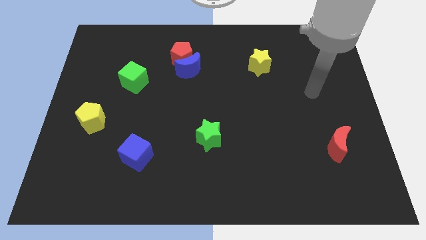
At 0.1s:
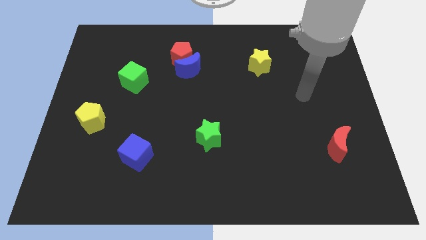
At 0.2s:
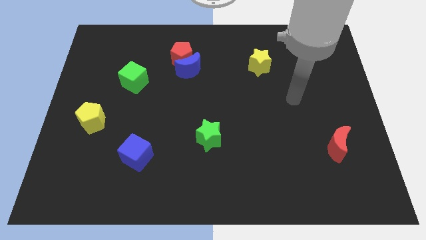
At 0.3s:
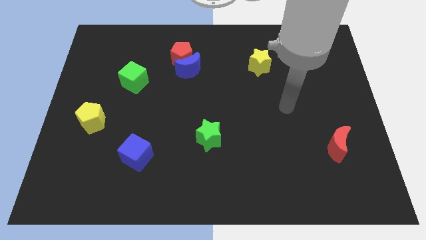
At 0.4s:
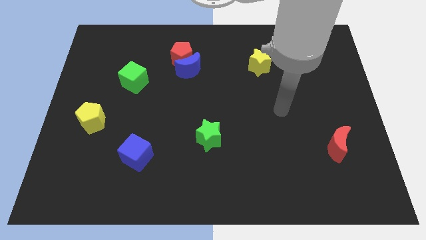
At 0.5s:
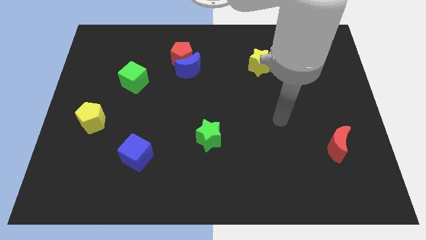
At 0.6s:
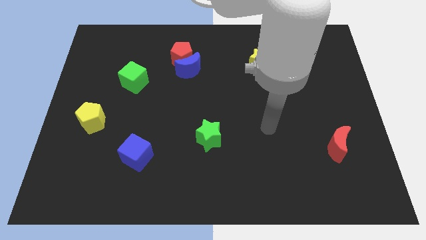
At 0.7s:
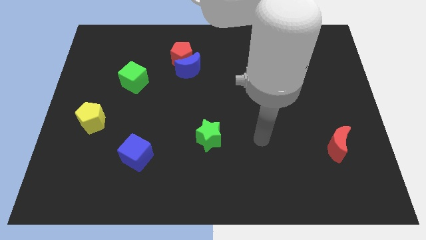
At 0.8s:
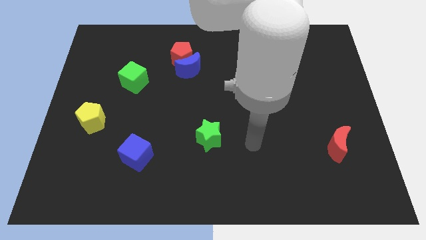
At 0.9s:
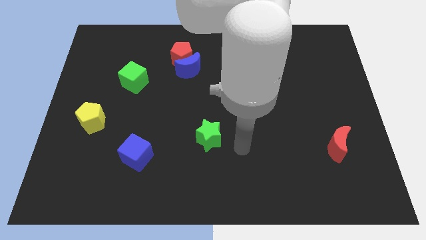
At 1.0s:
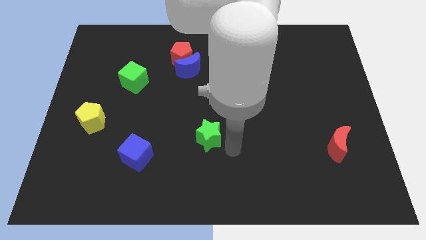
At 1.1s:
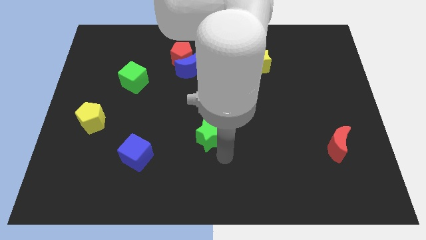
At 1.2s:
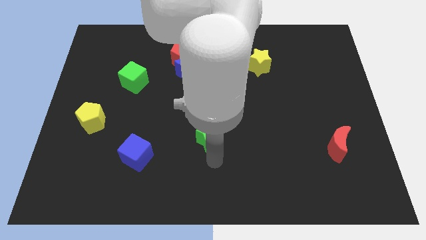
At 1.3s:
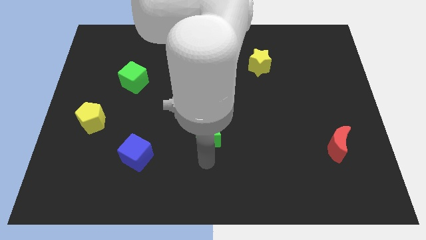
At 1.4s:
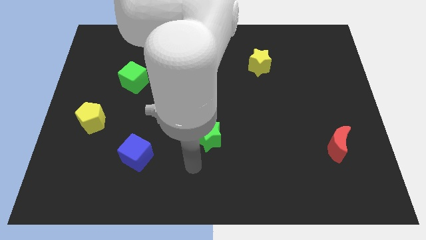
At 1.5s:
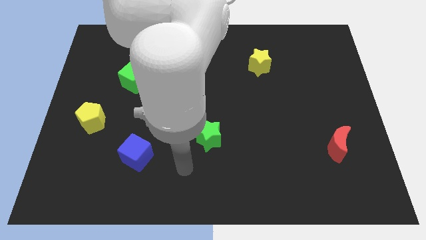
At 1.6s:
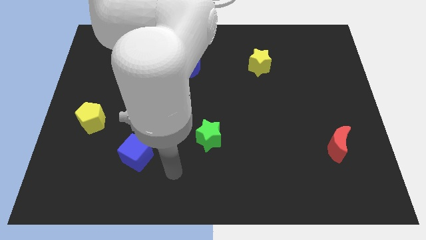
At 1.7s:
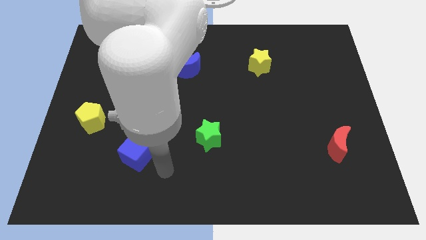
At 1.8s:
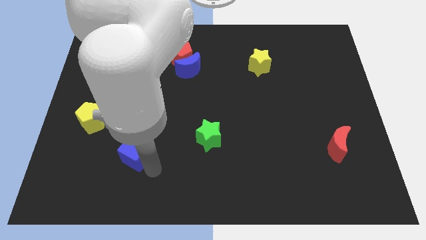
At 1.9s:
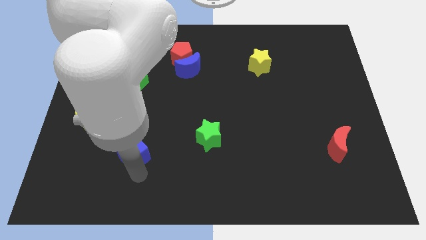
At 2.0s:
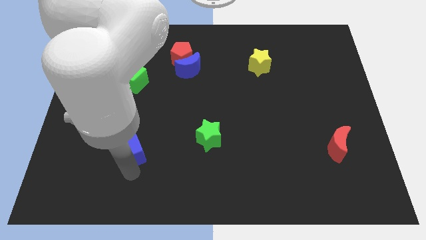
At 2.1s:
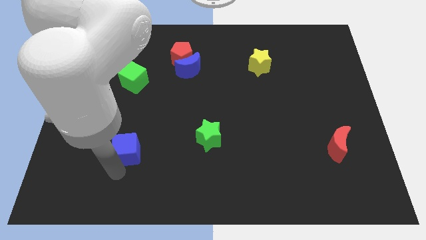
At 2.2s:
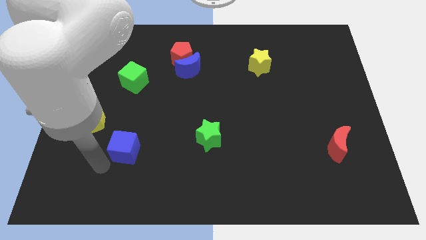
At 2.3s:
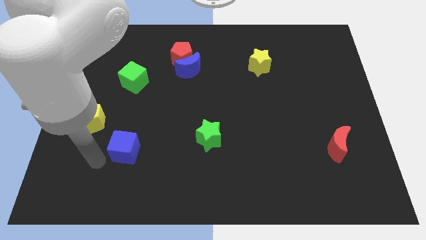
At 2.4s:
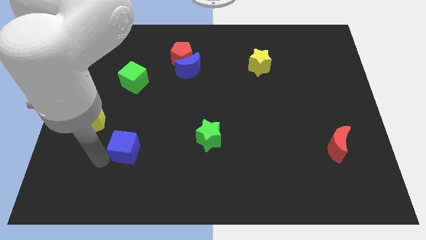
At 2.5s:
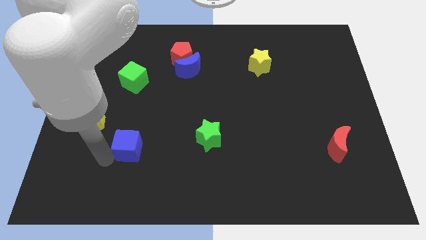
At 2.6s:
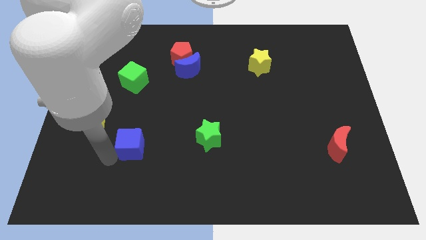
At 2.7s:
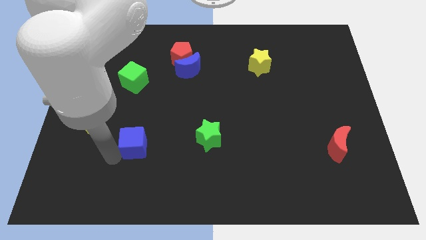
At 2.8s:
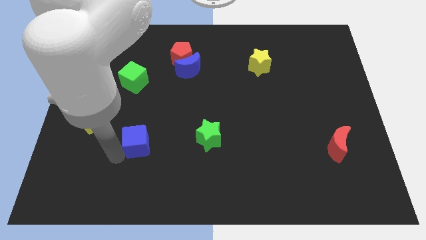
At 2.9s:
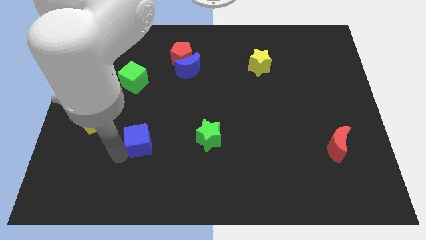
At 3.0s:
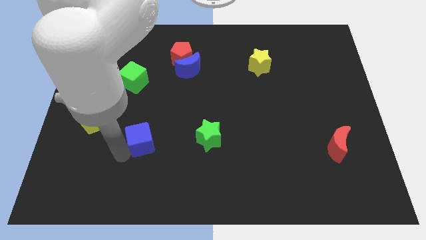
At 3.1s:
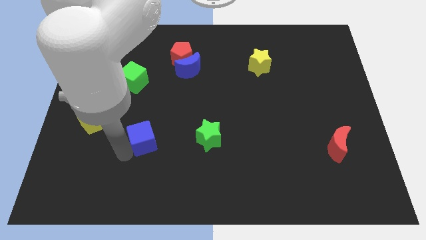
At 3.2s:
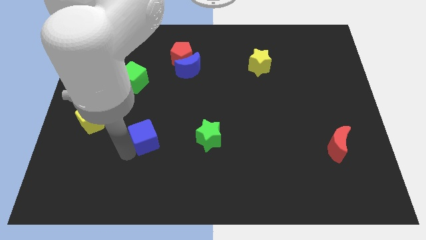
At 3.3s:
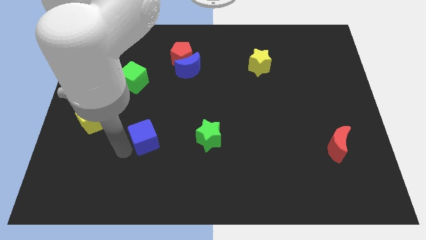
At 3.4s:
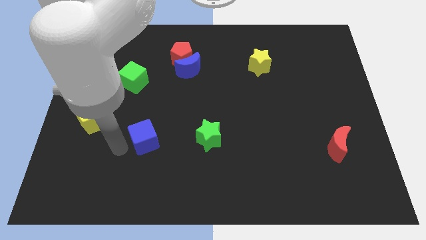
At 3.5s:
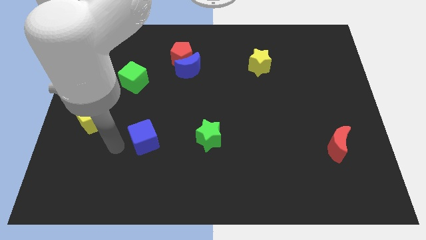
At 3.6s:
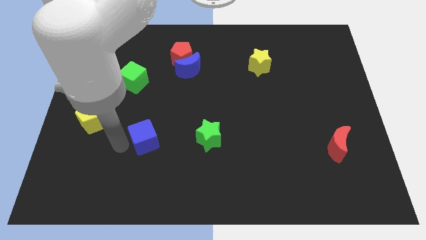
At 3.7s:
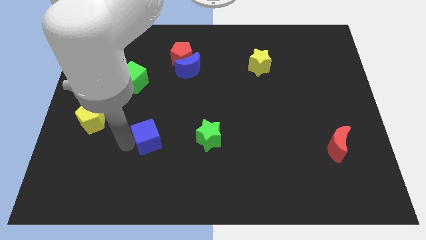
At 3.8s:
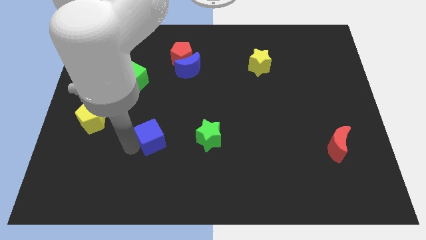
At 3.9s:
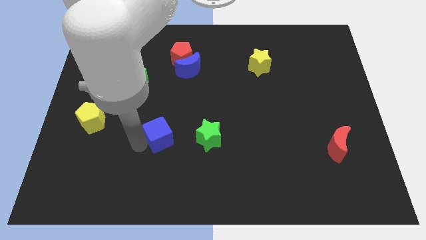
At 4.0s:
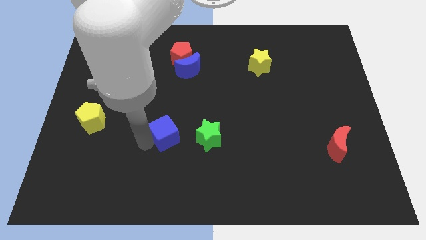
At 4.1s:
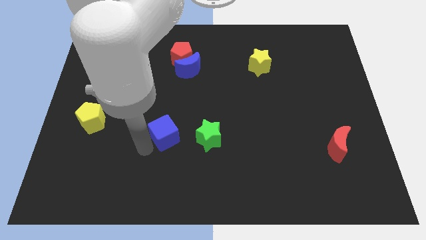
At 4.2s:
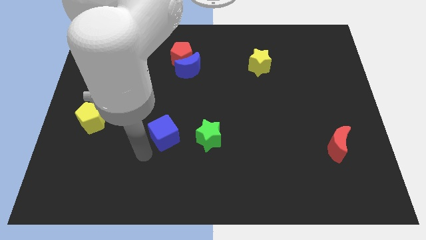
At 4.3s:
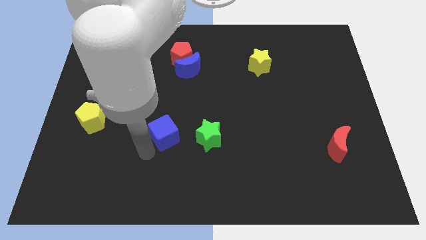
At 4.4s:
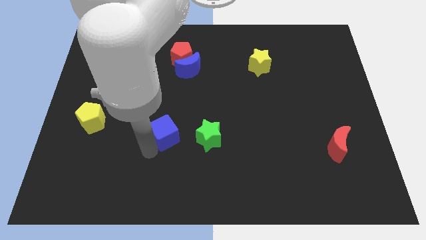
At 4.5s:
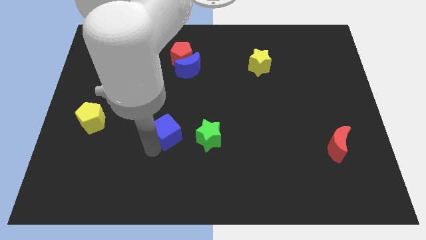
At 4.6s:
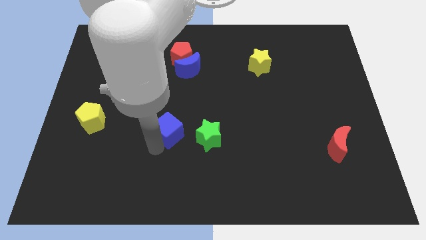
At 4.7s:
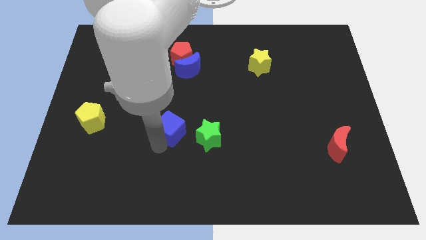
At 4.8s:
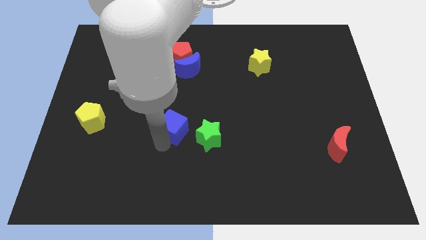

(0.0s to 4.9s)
put the blue cube to the center of the board

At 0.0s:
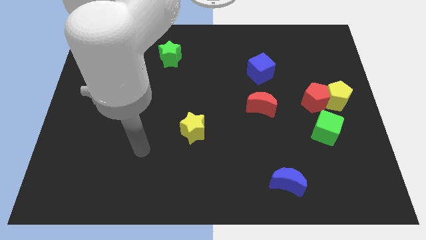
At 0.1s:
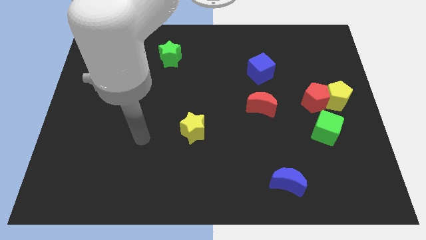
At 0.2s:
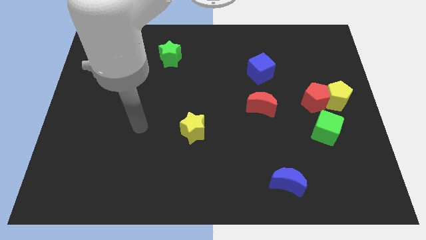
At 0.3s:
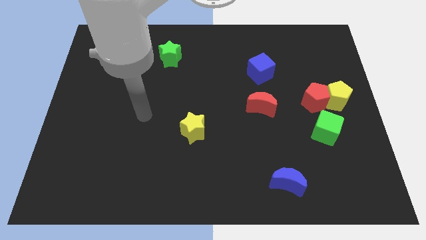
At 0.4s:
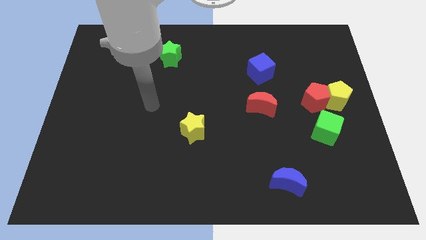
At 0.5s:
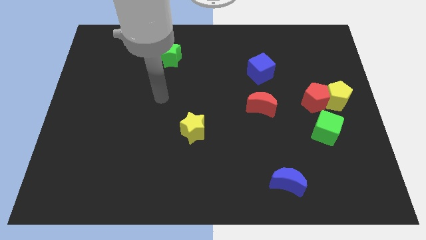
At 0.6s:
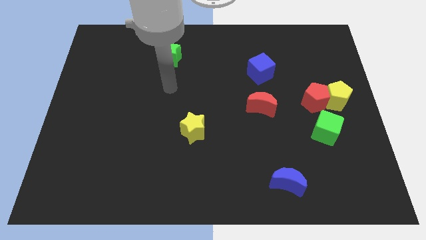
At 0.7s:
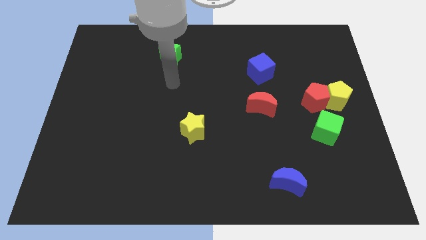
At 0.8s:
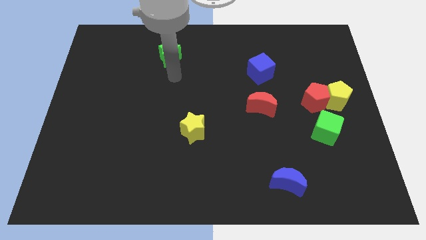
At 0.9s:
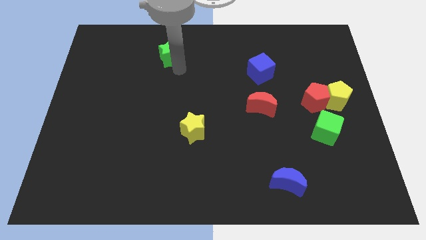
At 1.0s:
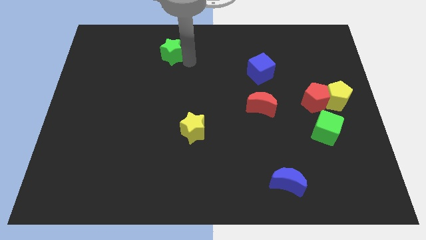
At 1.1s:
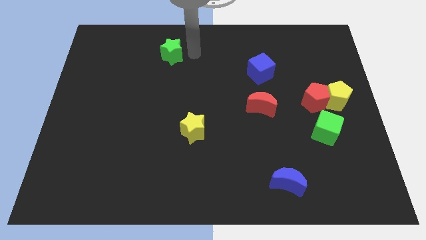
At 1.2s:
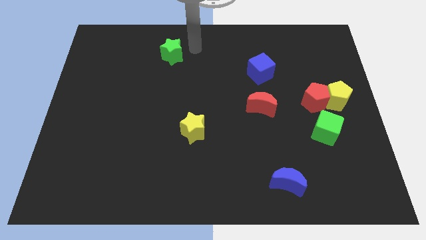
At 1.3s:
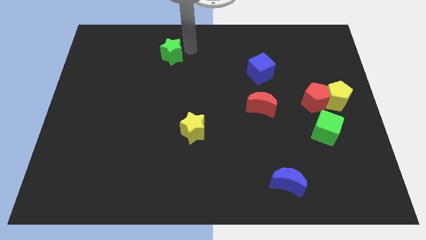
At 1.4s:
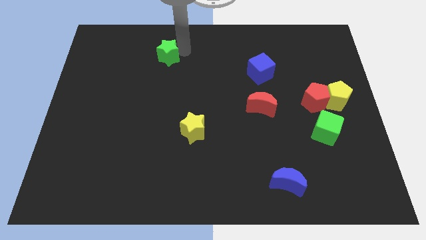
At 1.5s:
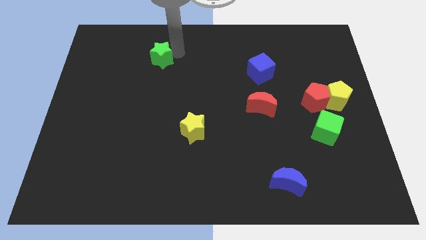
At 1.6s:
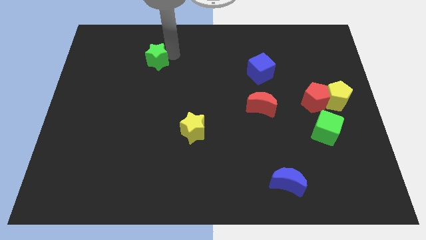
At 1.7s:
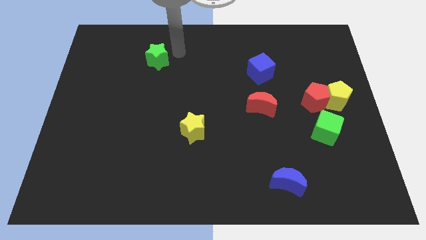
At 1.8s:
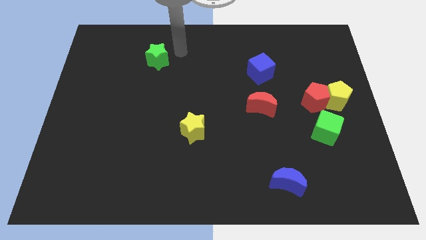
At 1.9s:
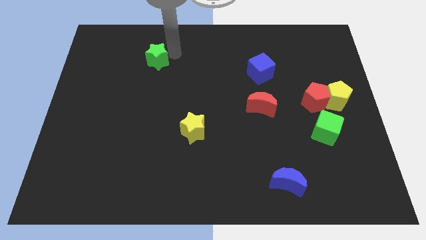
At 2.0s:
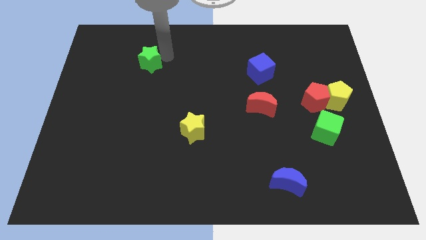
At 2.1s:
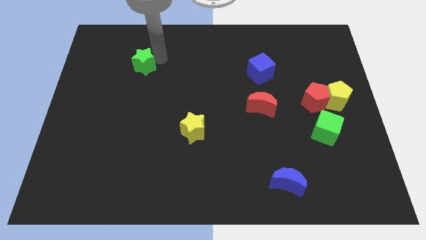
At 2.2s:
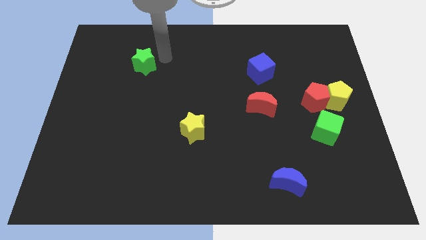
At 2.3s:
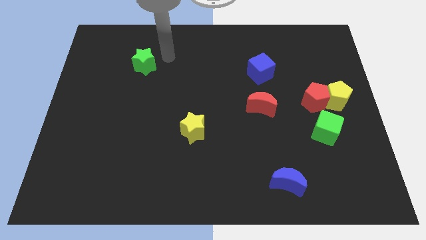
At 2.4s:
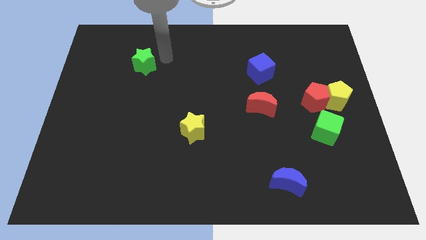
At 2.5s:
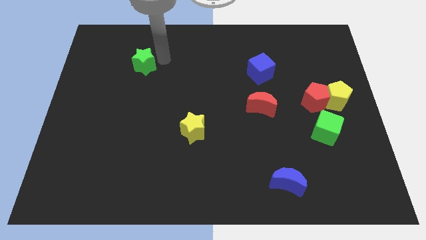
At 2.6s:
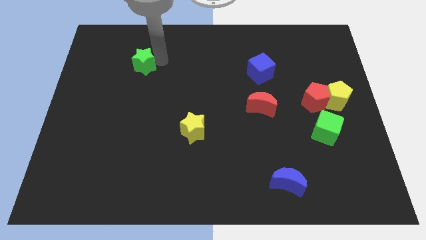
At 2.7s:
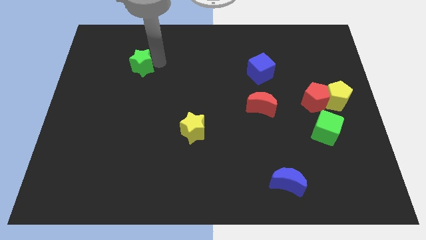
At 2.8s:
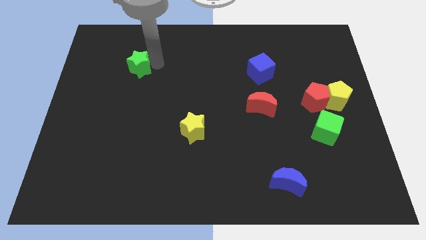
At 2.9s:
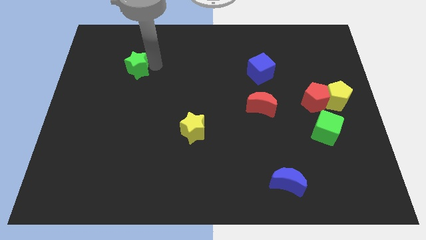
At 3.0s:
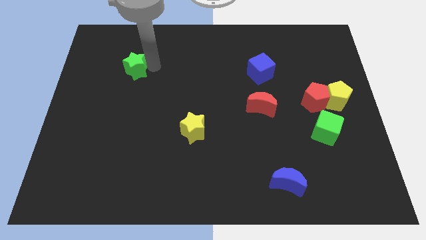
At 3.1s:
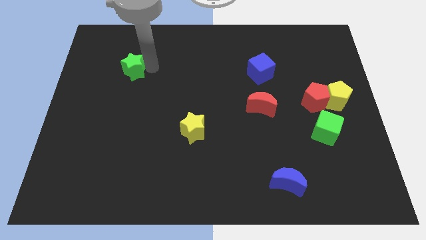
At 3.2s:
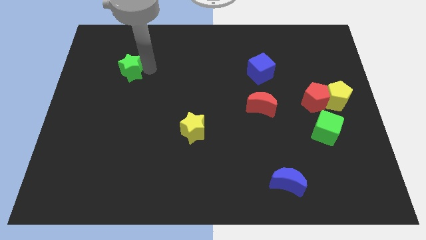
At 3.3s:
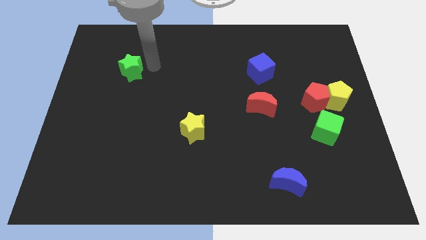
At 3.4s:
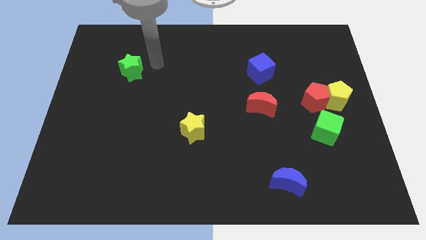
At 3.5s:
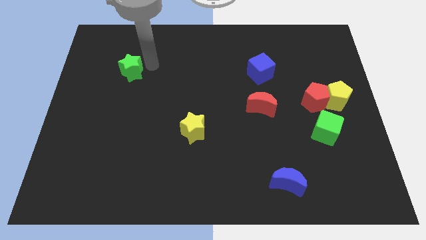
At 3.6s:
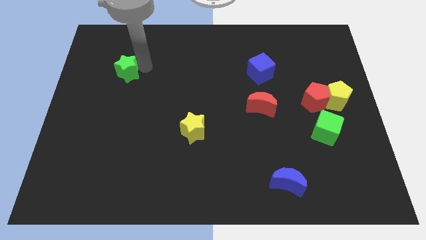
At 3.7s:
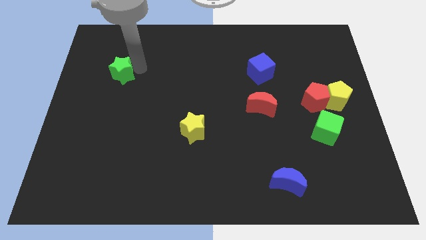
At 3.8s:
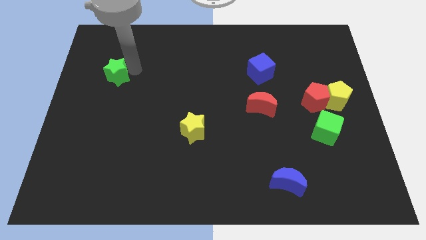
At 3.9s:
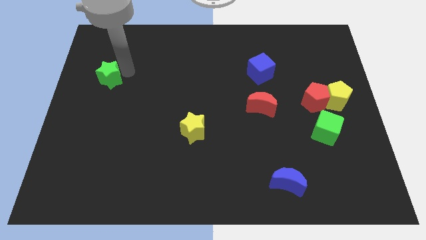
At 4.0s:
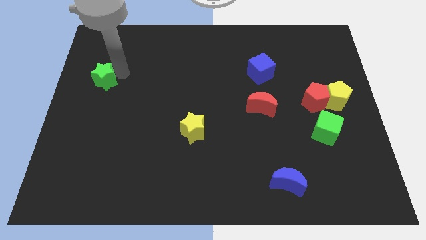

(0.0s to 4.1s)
slide the green star to the center left
